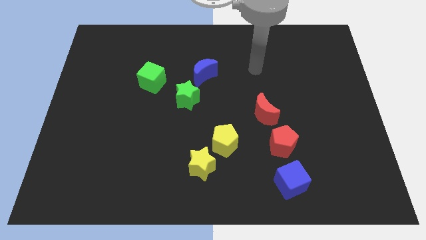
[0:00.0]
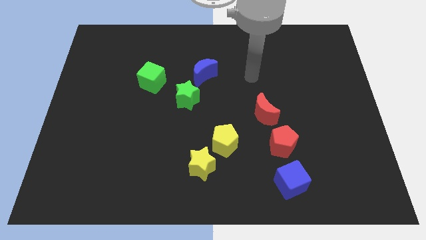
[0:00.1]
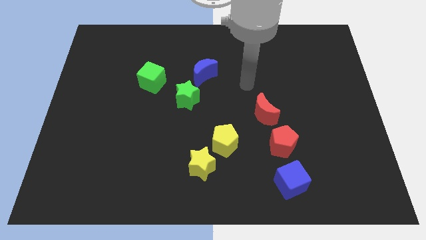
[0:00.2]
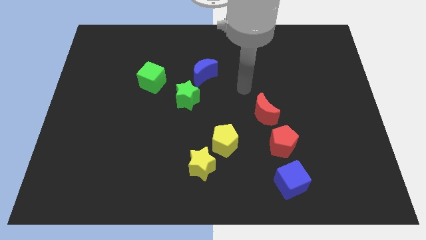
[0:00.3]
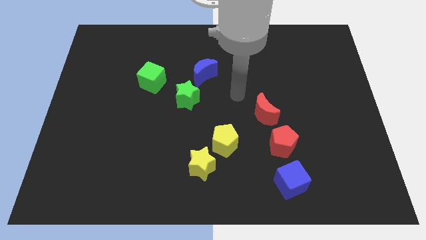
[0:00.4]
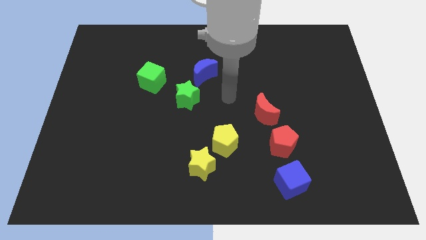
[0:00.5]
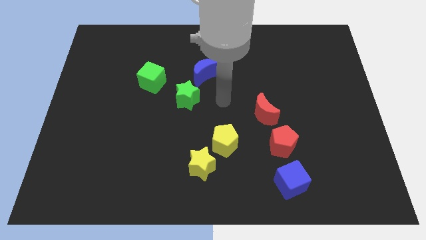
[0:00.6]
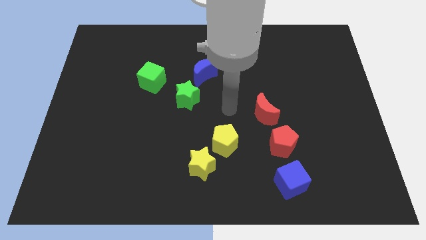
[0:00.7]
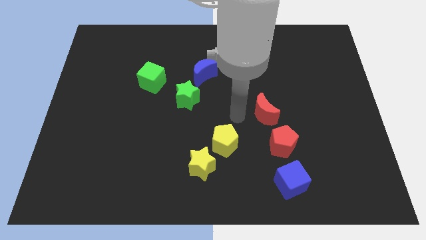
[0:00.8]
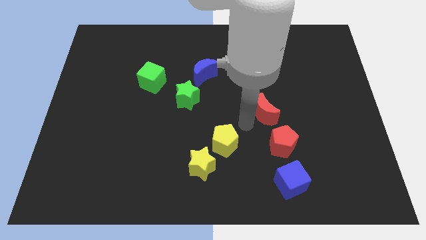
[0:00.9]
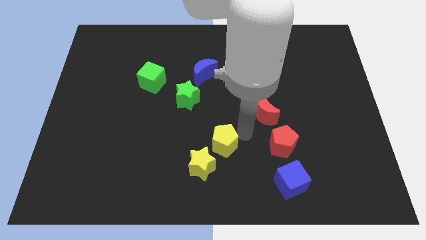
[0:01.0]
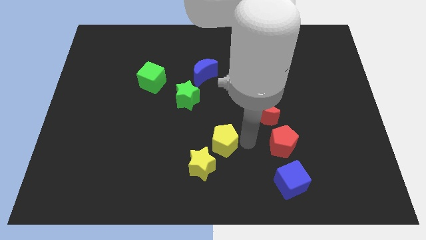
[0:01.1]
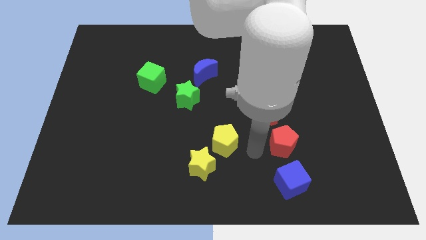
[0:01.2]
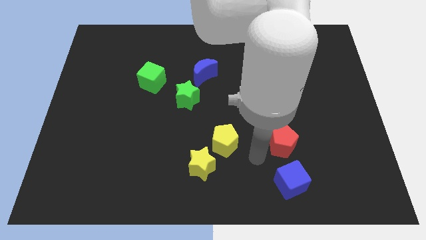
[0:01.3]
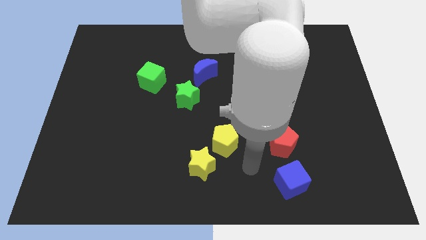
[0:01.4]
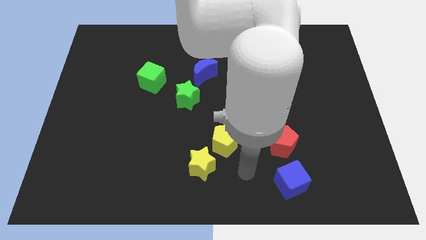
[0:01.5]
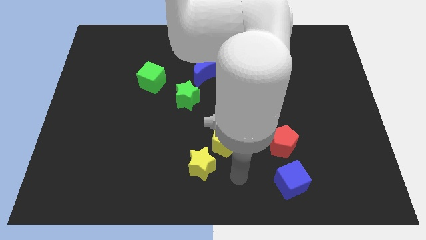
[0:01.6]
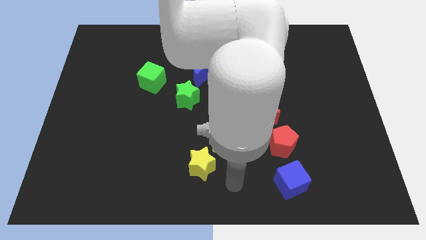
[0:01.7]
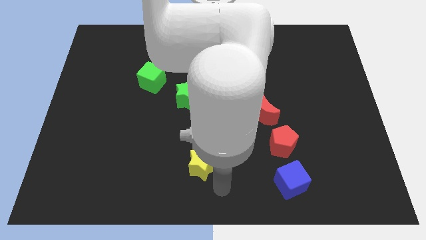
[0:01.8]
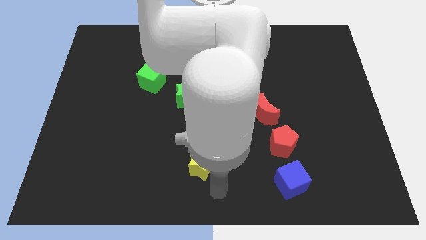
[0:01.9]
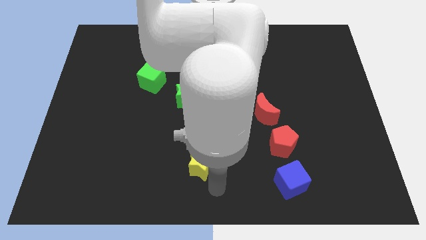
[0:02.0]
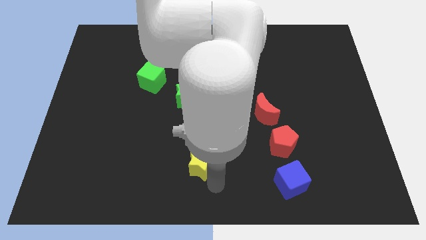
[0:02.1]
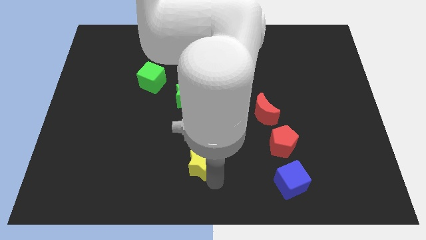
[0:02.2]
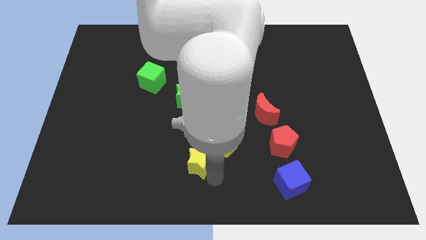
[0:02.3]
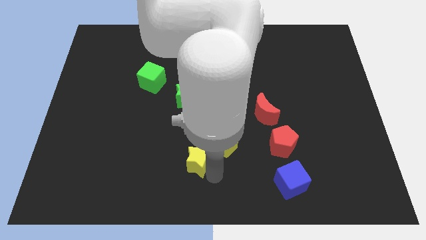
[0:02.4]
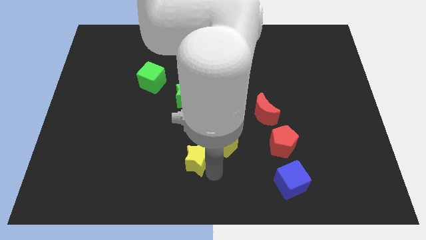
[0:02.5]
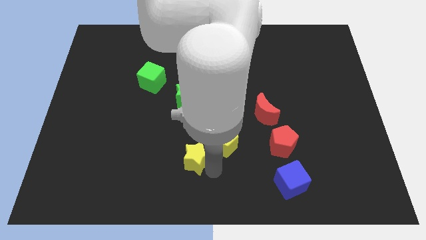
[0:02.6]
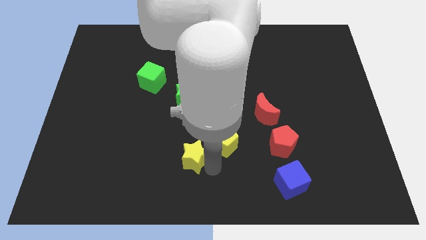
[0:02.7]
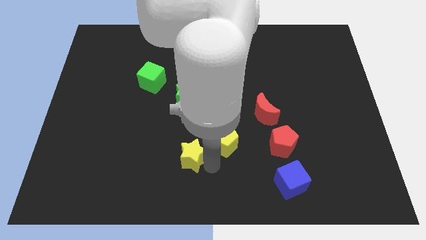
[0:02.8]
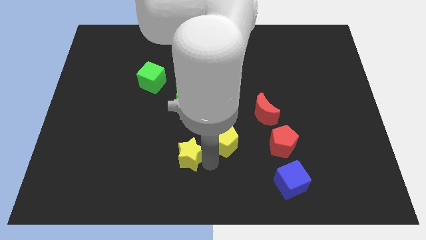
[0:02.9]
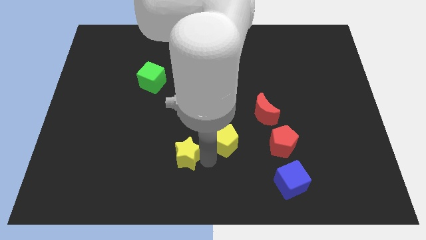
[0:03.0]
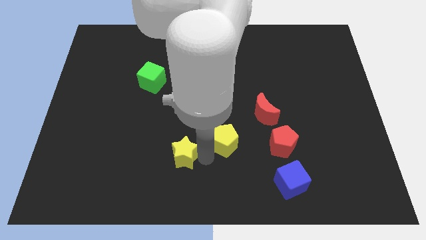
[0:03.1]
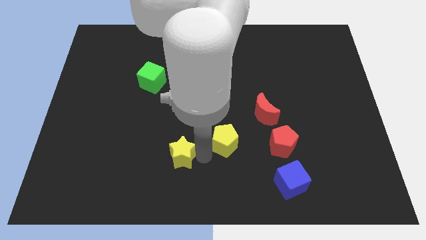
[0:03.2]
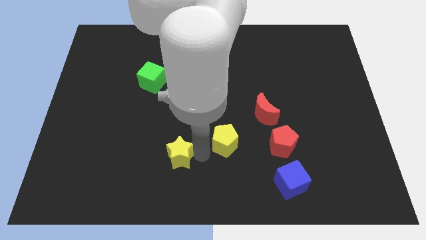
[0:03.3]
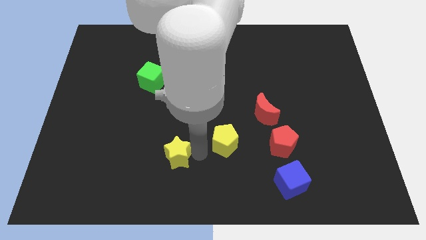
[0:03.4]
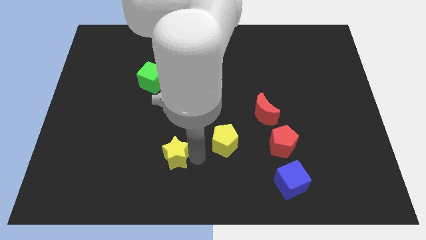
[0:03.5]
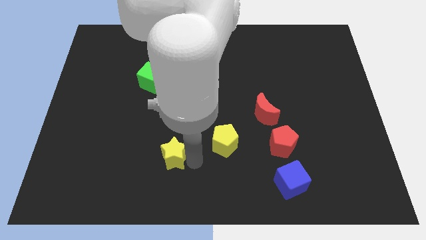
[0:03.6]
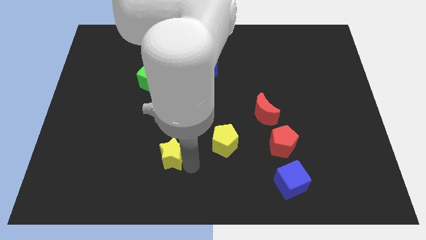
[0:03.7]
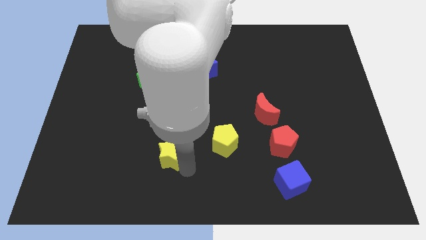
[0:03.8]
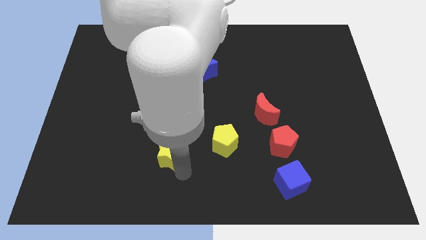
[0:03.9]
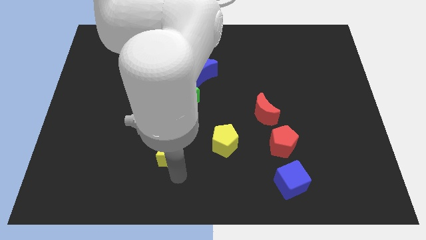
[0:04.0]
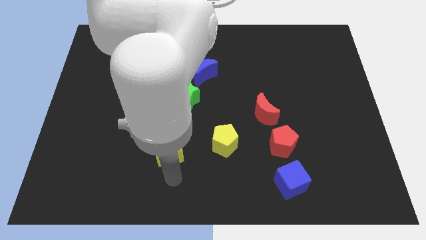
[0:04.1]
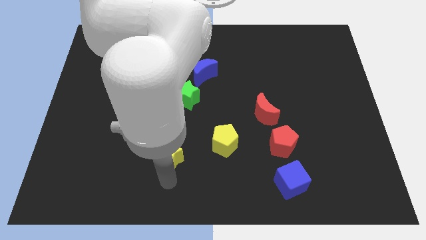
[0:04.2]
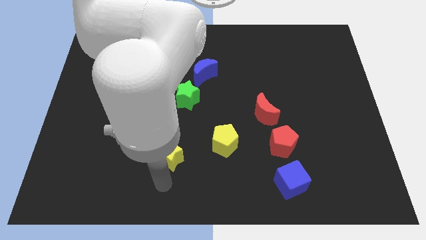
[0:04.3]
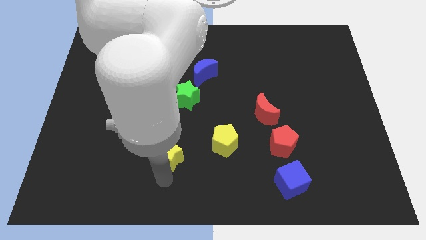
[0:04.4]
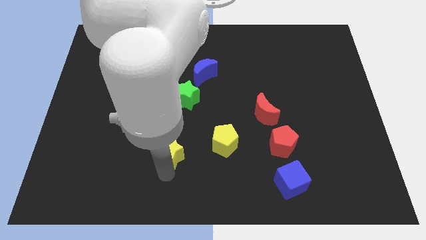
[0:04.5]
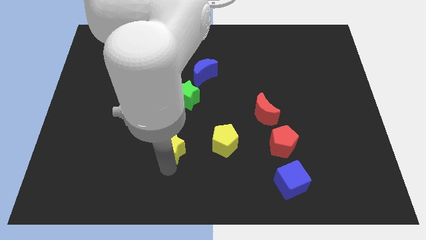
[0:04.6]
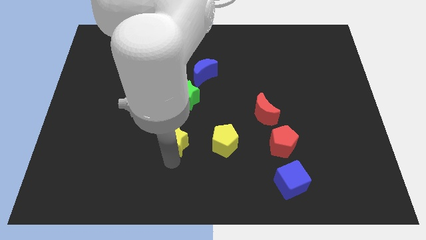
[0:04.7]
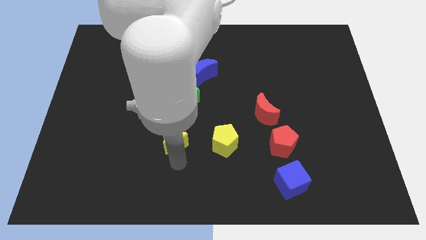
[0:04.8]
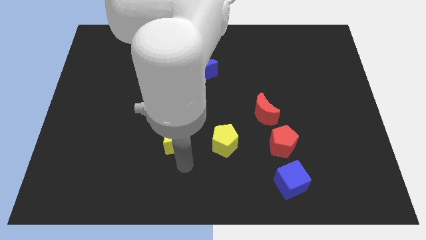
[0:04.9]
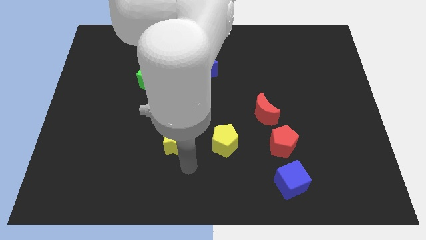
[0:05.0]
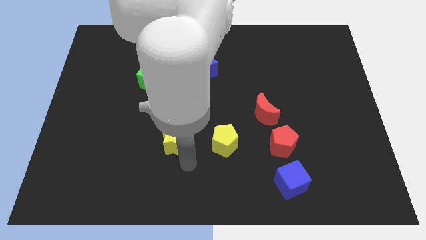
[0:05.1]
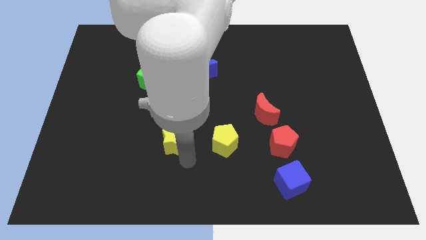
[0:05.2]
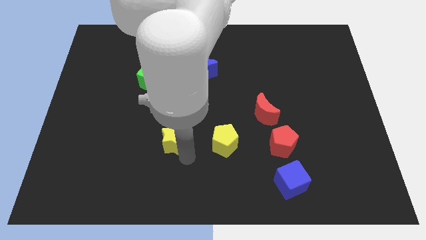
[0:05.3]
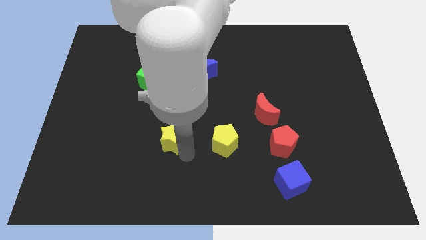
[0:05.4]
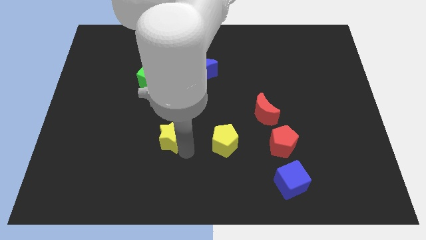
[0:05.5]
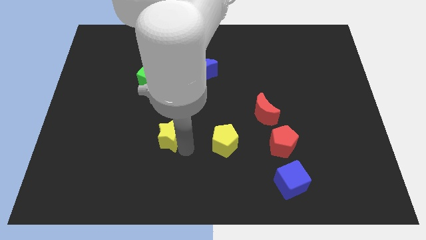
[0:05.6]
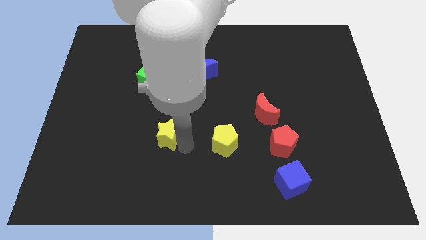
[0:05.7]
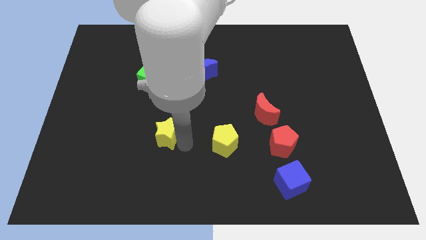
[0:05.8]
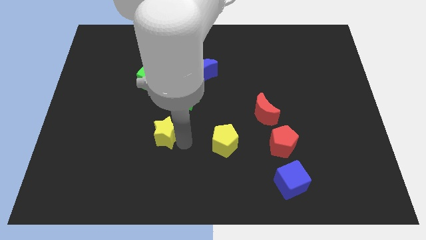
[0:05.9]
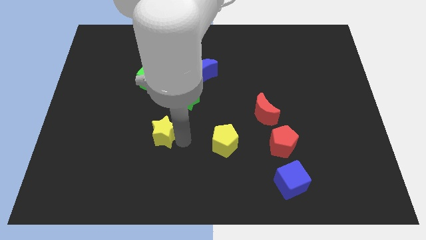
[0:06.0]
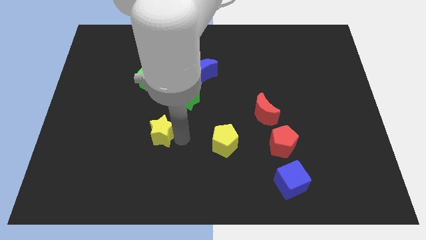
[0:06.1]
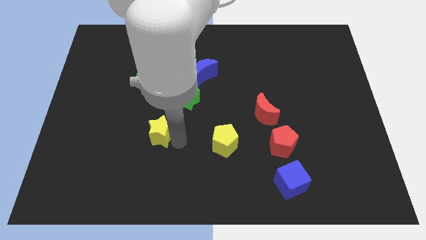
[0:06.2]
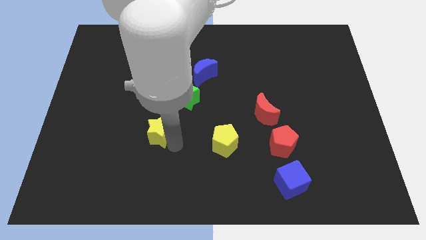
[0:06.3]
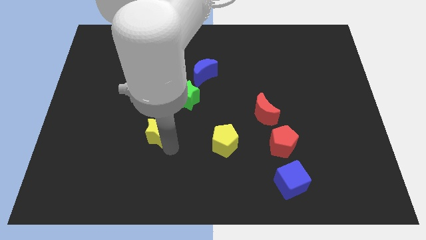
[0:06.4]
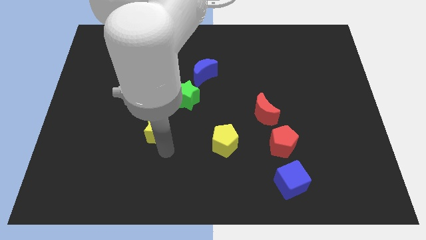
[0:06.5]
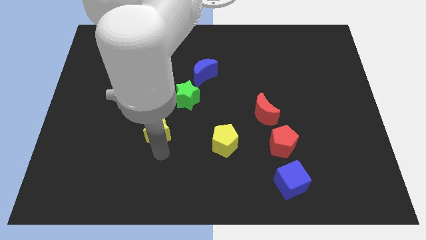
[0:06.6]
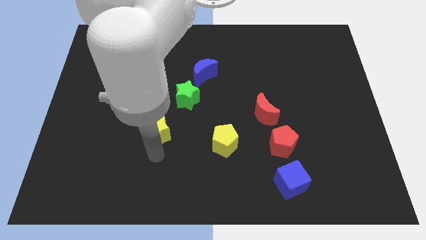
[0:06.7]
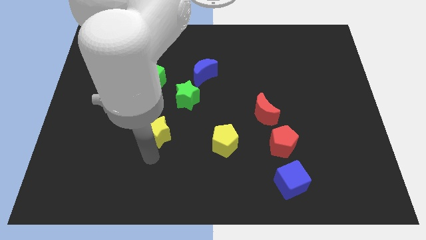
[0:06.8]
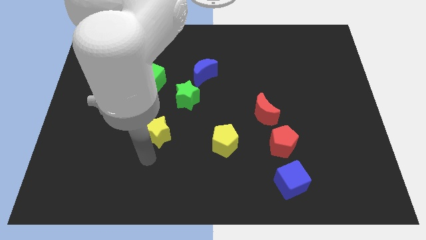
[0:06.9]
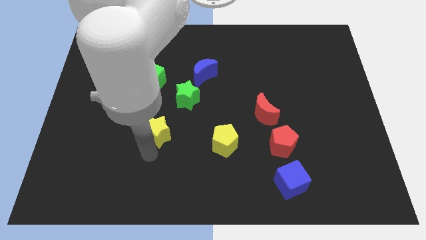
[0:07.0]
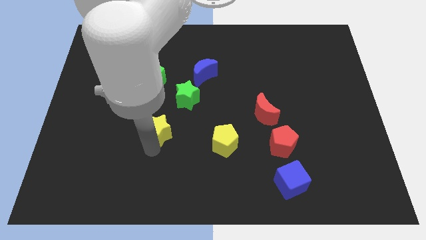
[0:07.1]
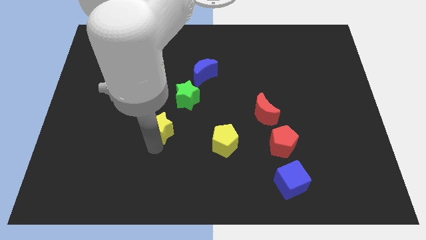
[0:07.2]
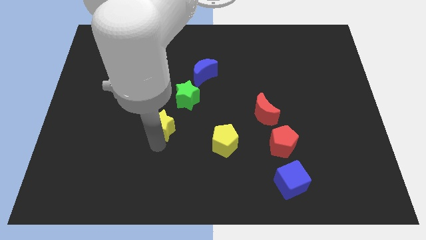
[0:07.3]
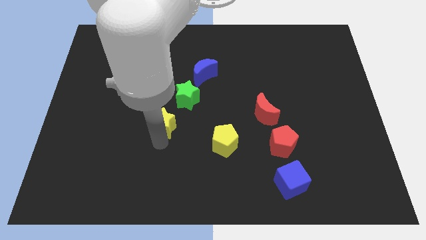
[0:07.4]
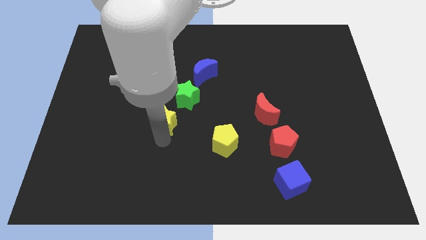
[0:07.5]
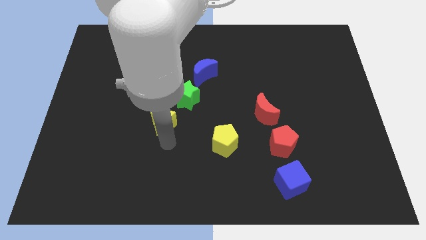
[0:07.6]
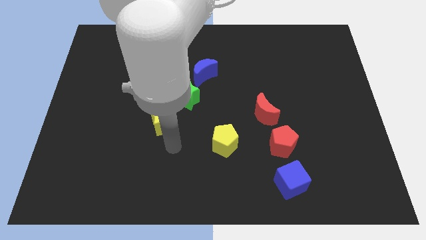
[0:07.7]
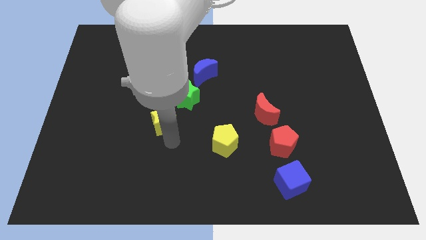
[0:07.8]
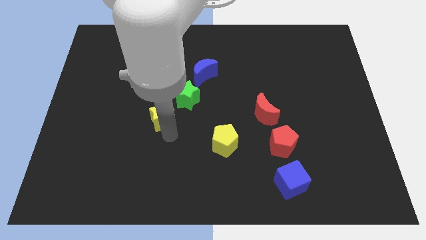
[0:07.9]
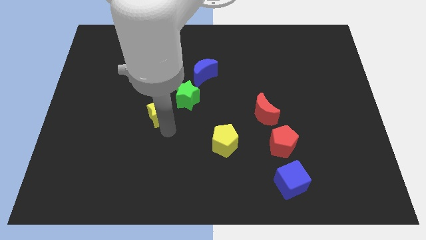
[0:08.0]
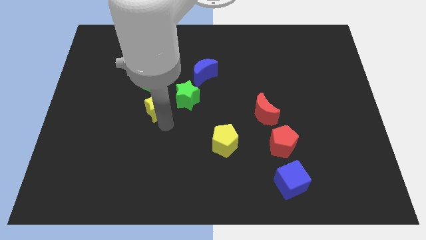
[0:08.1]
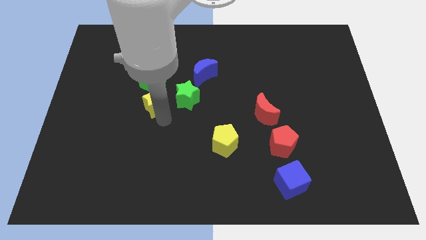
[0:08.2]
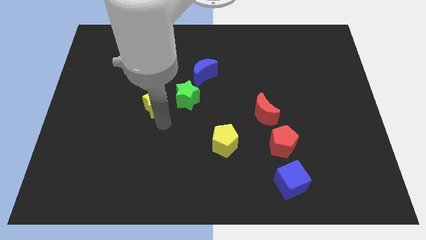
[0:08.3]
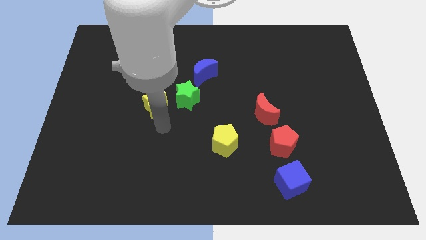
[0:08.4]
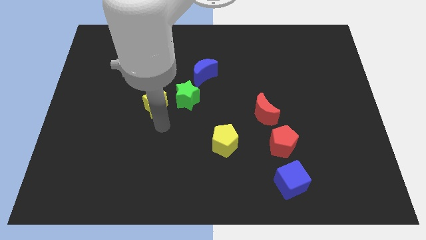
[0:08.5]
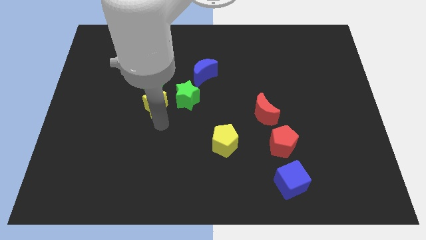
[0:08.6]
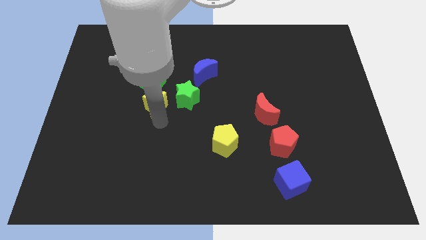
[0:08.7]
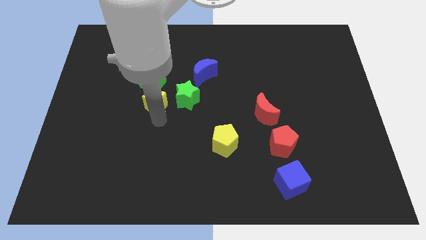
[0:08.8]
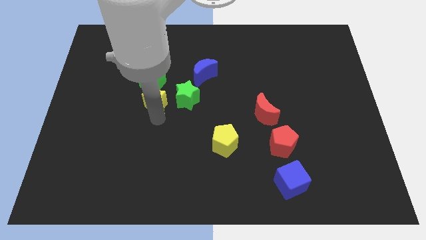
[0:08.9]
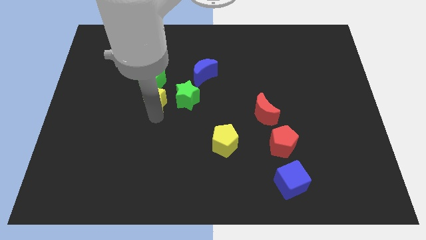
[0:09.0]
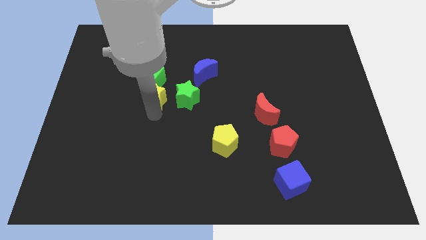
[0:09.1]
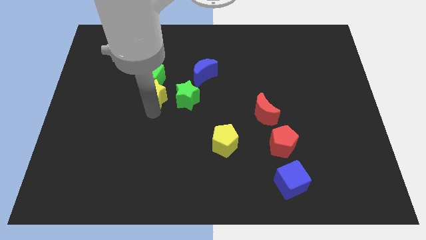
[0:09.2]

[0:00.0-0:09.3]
slide the yellow star next to the green cube
